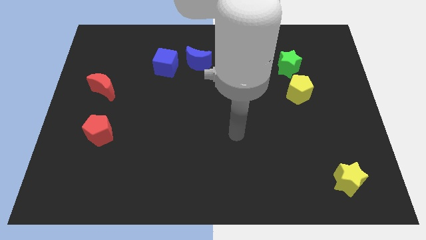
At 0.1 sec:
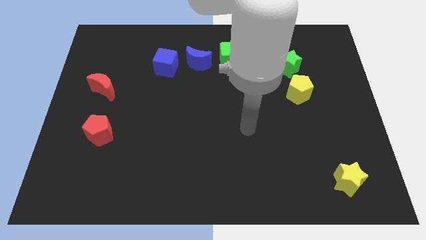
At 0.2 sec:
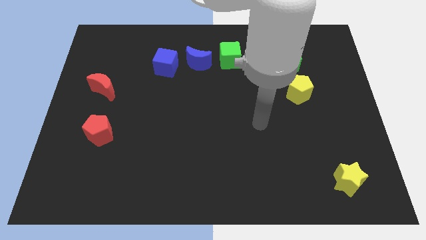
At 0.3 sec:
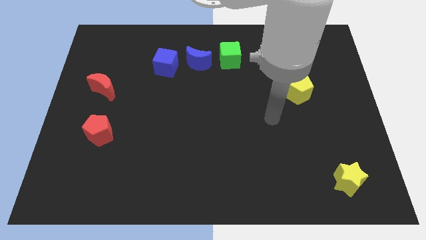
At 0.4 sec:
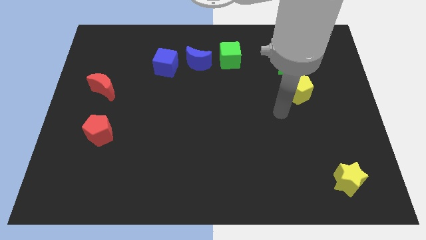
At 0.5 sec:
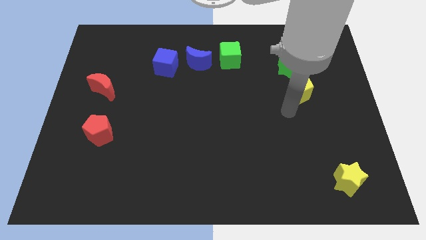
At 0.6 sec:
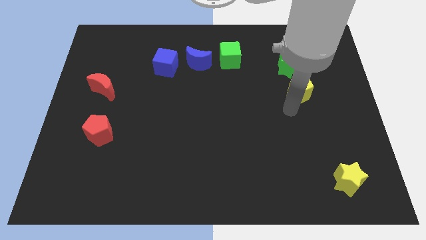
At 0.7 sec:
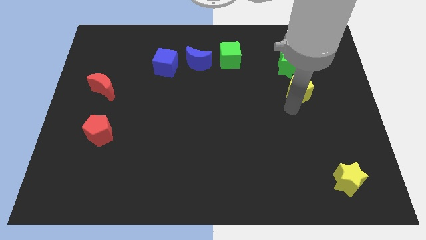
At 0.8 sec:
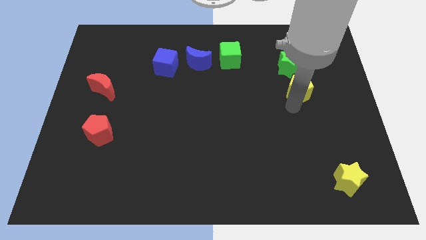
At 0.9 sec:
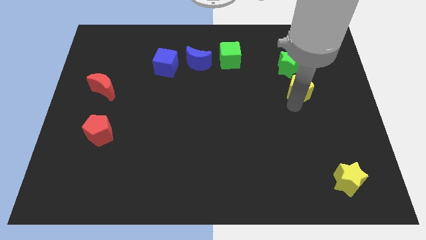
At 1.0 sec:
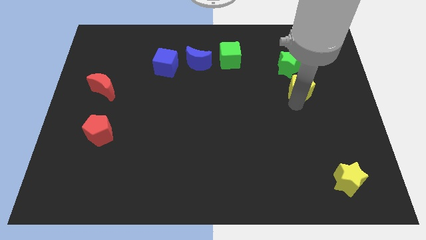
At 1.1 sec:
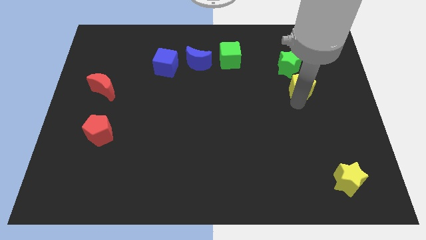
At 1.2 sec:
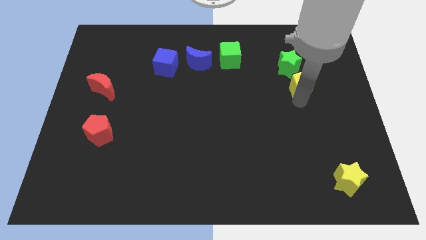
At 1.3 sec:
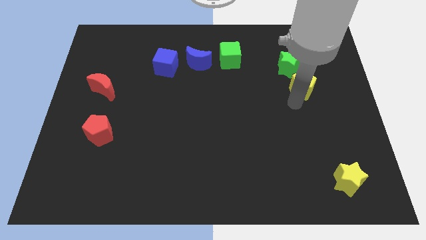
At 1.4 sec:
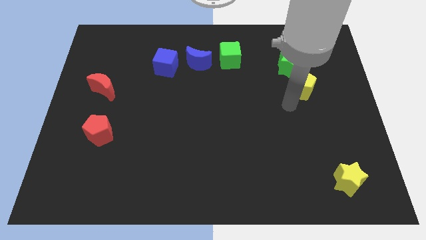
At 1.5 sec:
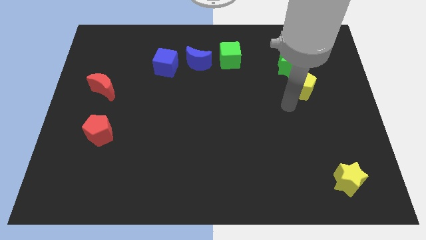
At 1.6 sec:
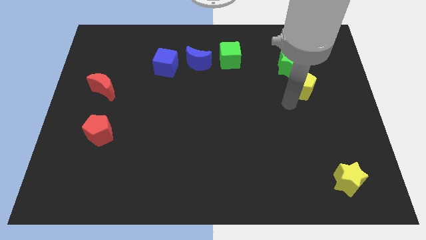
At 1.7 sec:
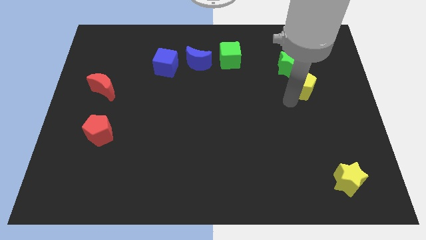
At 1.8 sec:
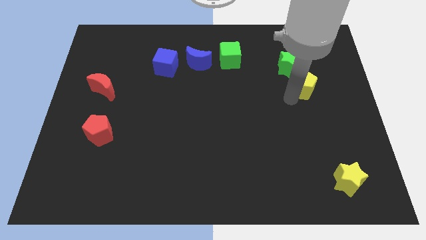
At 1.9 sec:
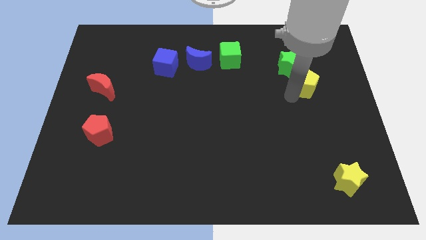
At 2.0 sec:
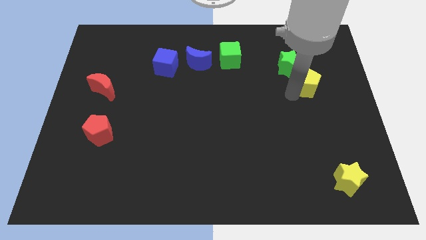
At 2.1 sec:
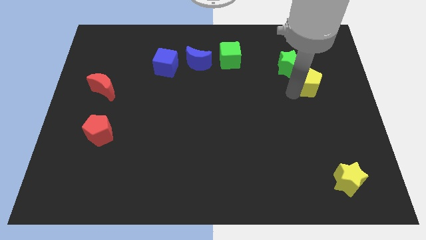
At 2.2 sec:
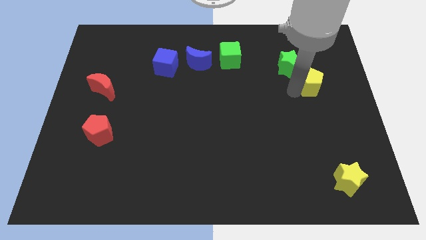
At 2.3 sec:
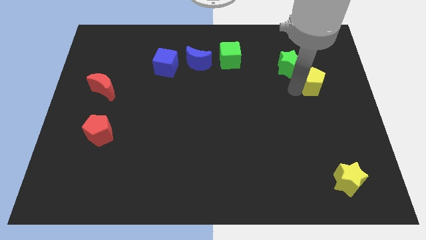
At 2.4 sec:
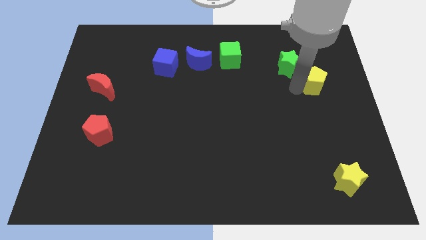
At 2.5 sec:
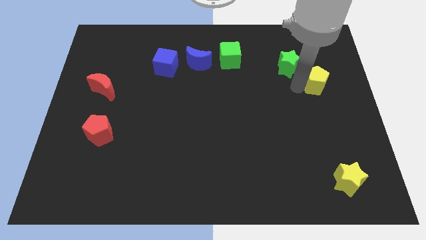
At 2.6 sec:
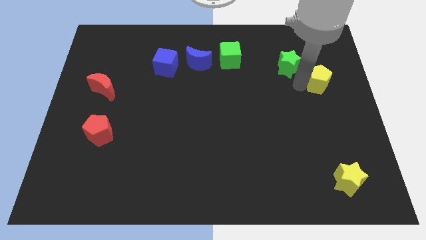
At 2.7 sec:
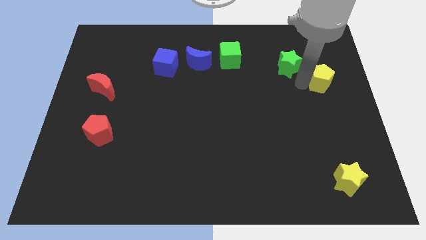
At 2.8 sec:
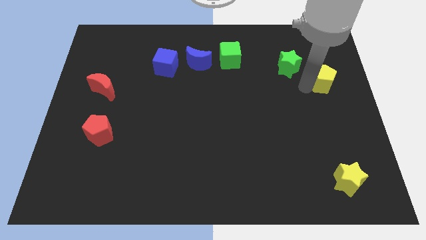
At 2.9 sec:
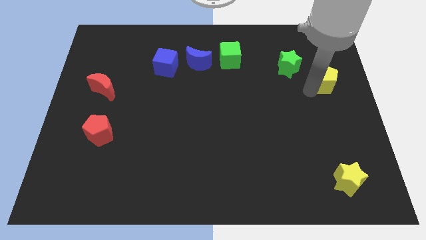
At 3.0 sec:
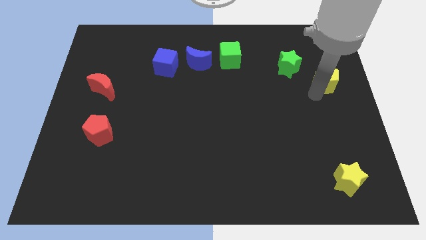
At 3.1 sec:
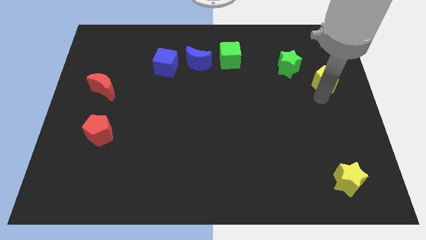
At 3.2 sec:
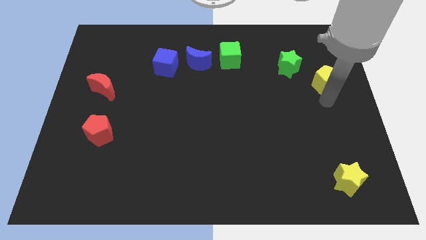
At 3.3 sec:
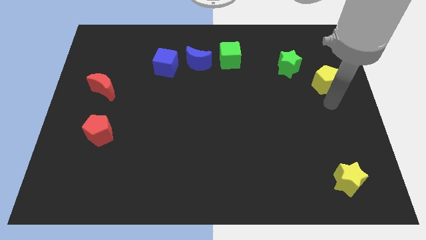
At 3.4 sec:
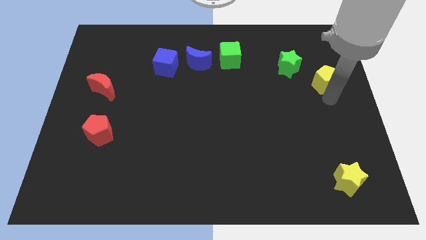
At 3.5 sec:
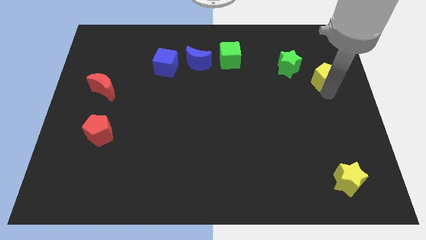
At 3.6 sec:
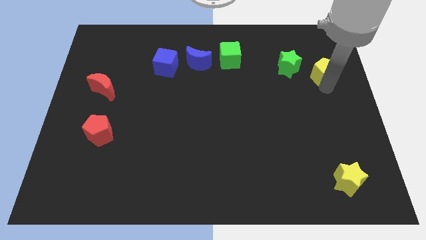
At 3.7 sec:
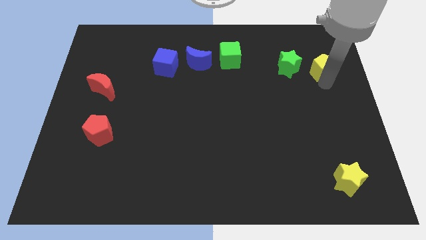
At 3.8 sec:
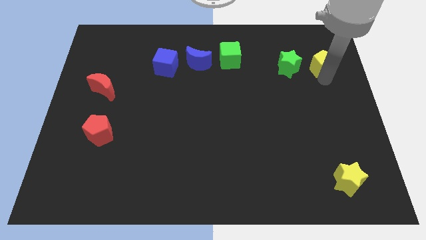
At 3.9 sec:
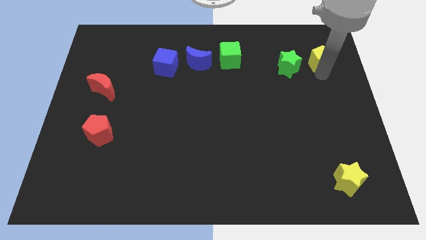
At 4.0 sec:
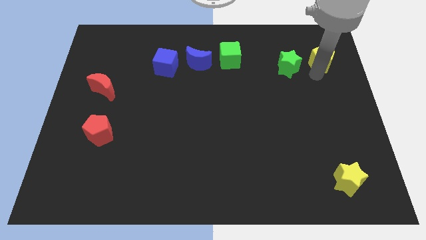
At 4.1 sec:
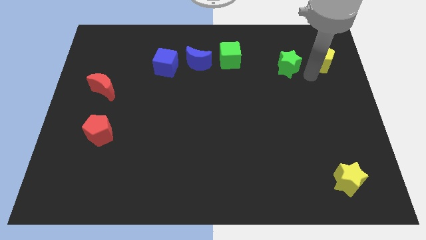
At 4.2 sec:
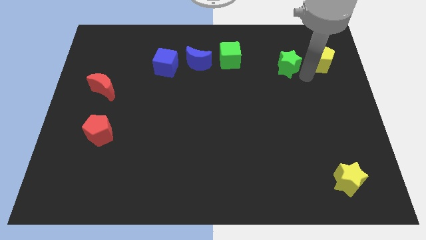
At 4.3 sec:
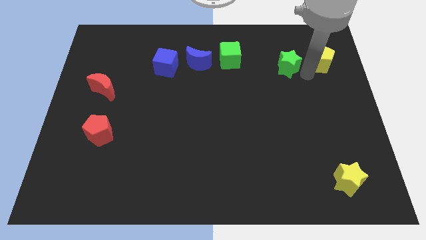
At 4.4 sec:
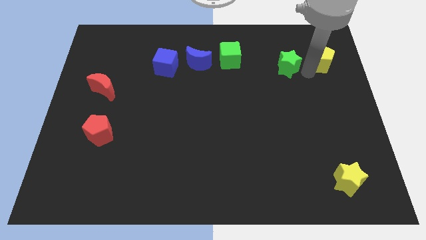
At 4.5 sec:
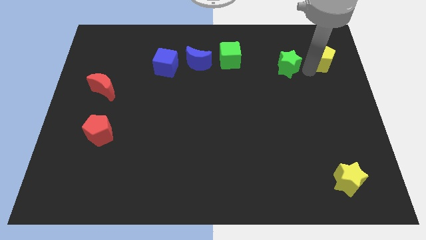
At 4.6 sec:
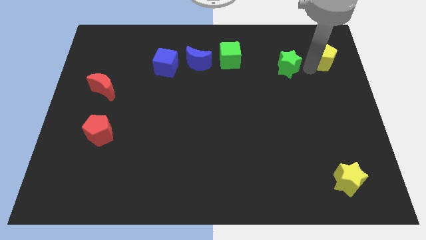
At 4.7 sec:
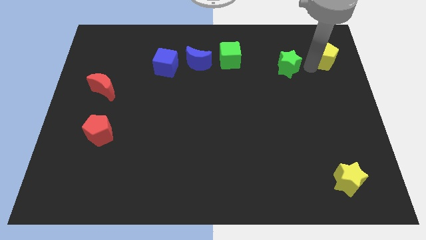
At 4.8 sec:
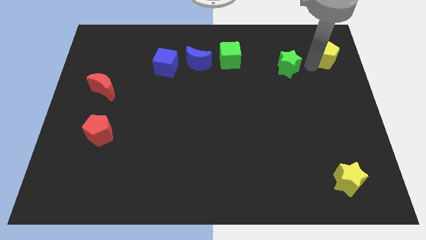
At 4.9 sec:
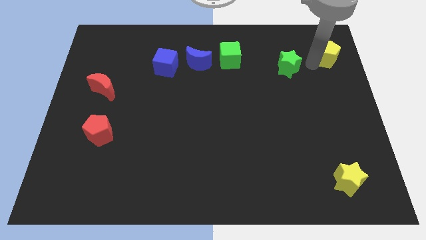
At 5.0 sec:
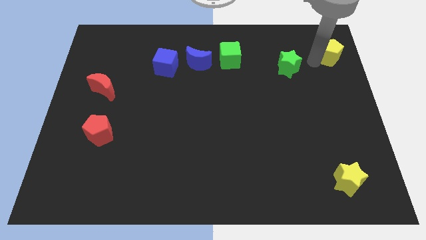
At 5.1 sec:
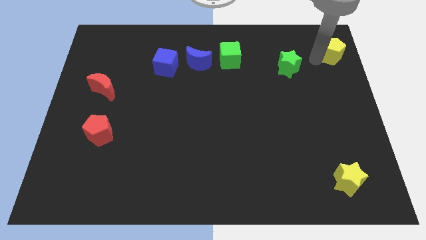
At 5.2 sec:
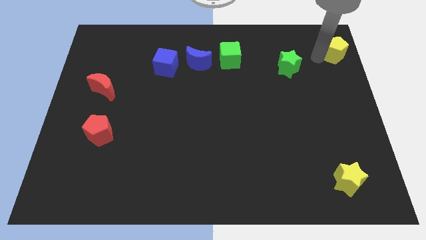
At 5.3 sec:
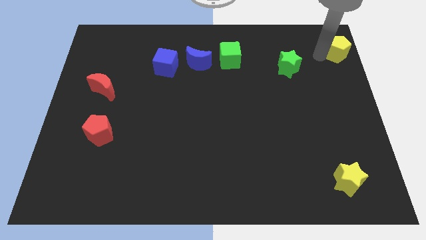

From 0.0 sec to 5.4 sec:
push the yellow pentagon to the upper right corner

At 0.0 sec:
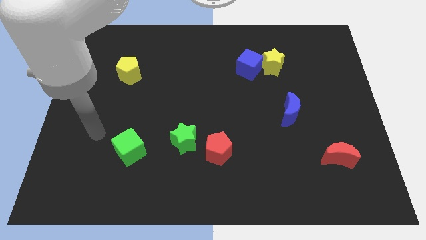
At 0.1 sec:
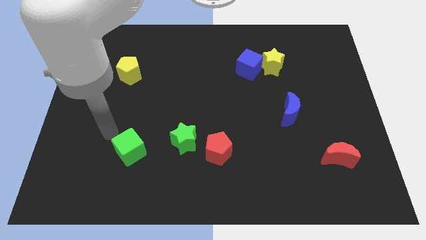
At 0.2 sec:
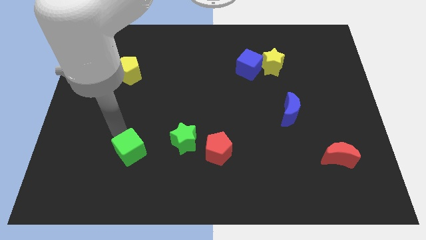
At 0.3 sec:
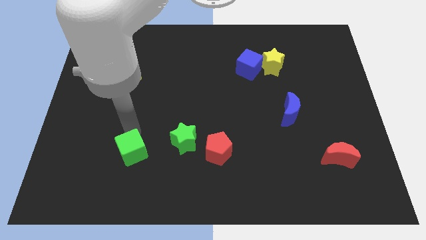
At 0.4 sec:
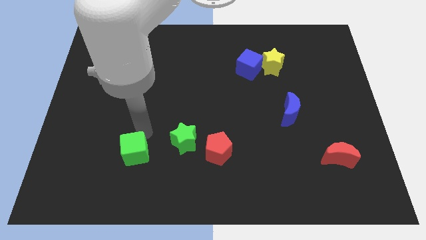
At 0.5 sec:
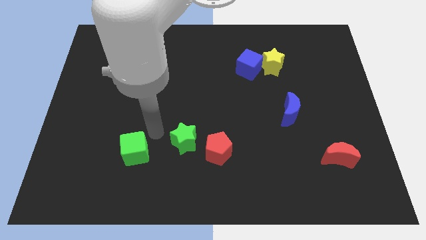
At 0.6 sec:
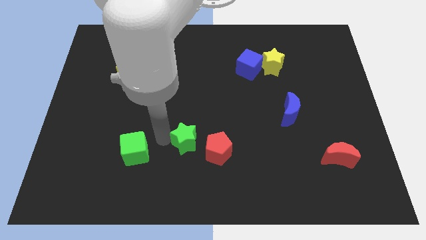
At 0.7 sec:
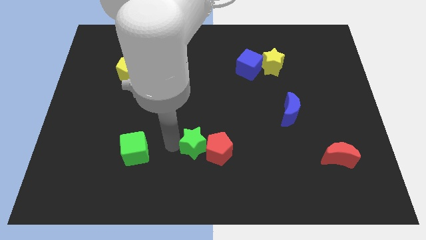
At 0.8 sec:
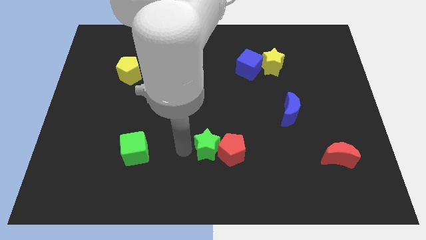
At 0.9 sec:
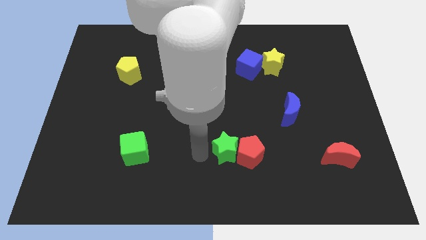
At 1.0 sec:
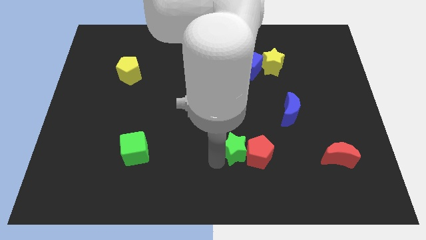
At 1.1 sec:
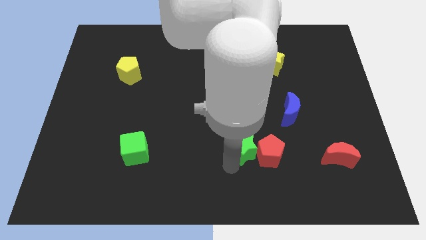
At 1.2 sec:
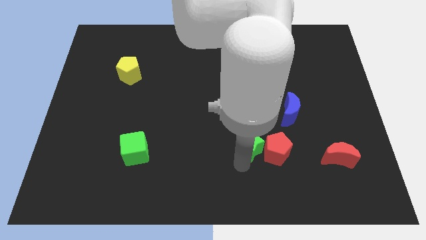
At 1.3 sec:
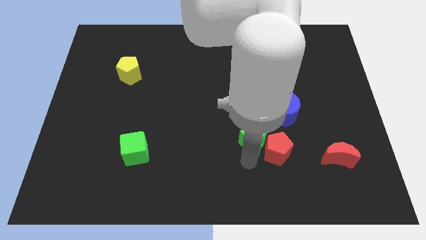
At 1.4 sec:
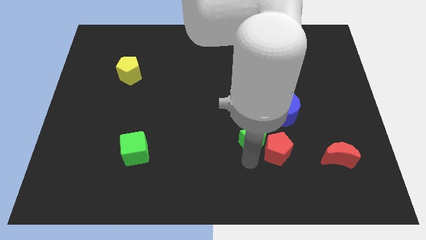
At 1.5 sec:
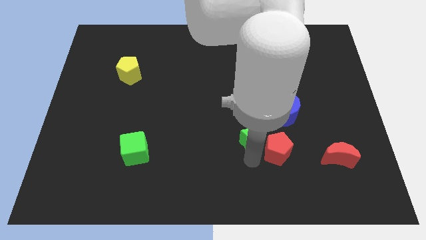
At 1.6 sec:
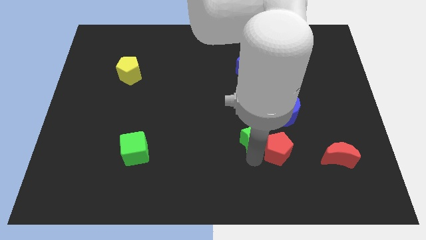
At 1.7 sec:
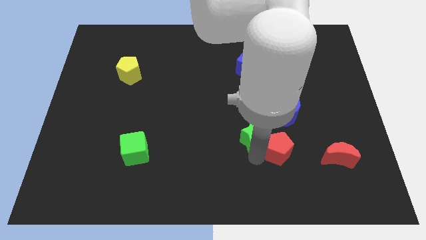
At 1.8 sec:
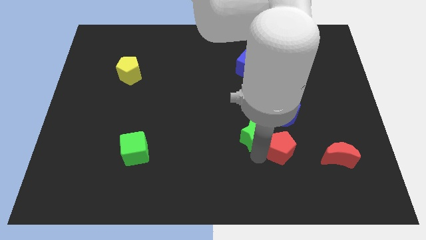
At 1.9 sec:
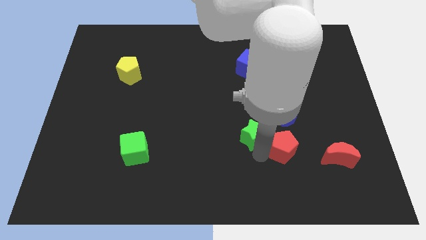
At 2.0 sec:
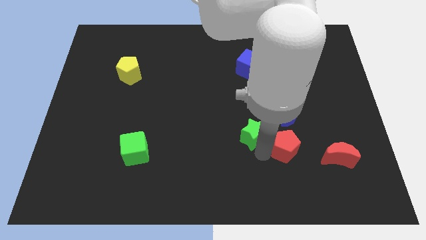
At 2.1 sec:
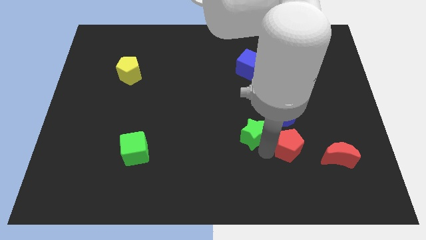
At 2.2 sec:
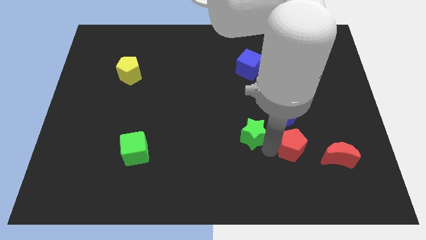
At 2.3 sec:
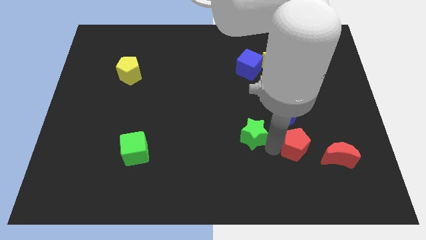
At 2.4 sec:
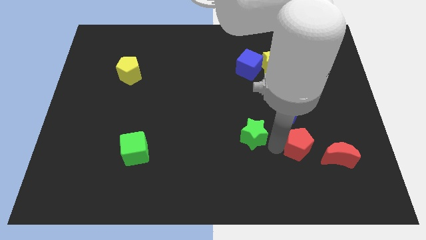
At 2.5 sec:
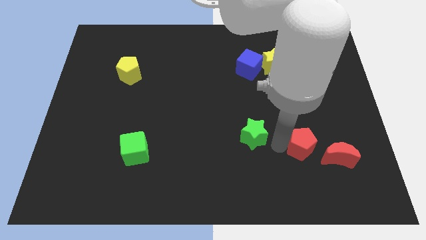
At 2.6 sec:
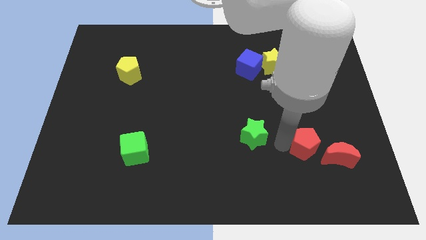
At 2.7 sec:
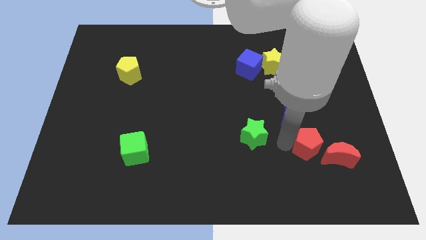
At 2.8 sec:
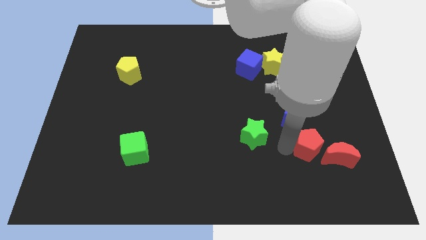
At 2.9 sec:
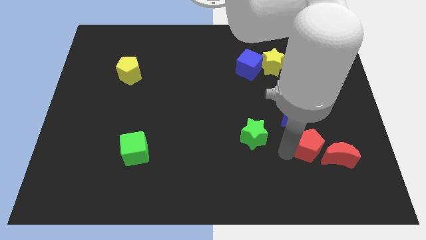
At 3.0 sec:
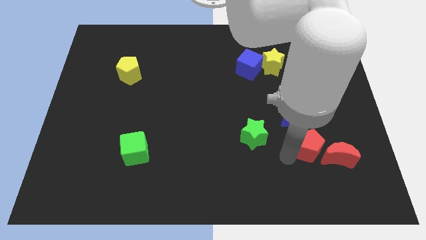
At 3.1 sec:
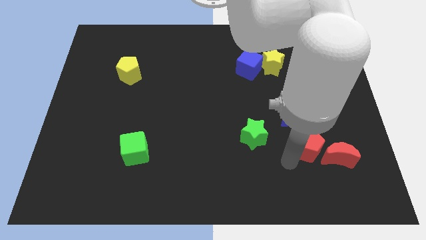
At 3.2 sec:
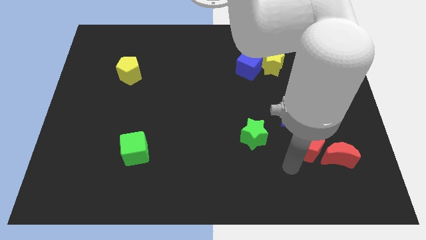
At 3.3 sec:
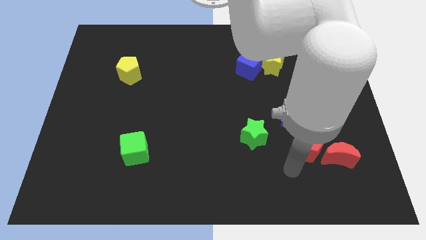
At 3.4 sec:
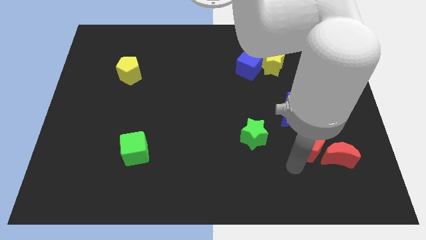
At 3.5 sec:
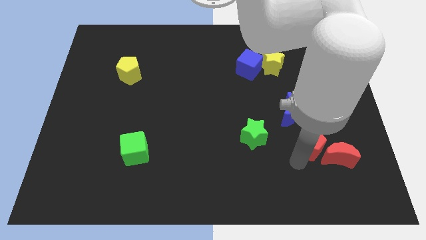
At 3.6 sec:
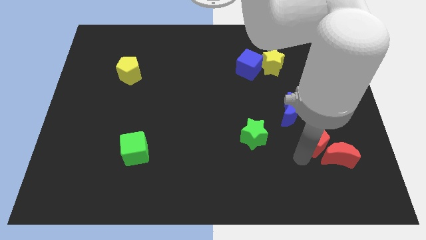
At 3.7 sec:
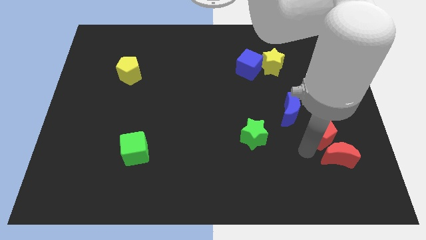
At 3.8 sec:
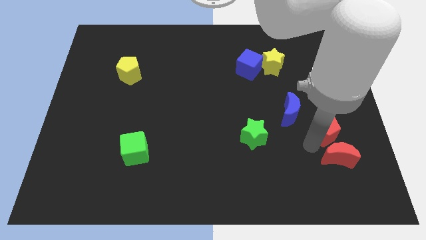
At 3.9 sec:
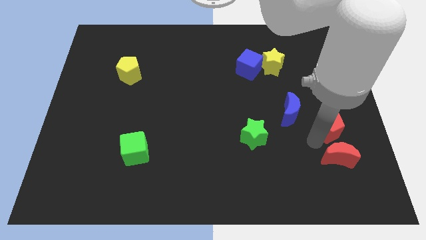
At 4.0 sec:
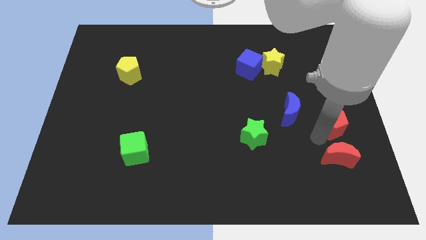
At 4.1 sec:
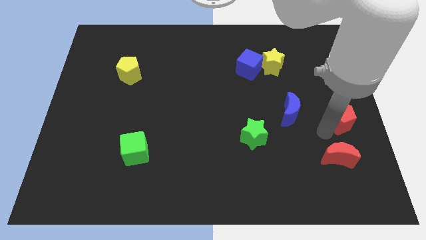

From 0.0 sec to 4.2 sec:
slide the red pentagon to the right side of the board
